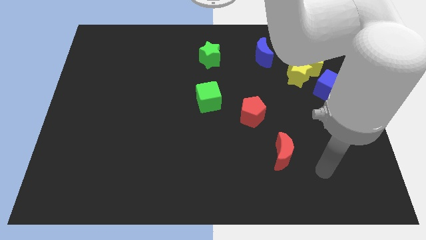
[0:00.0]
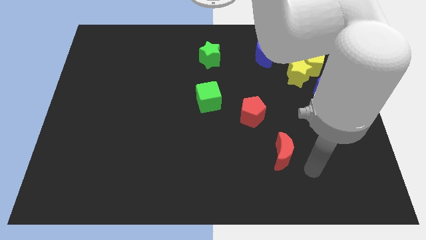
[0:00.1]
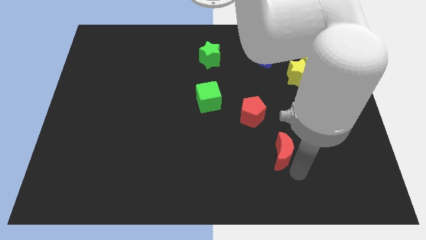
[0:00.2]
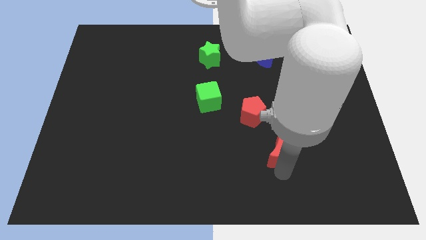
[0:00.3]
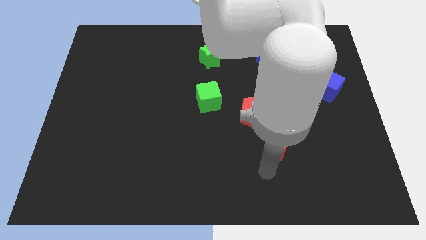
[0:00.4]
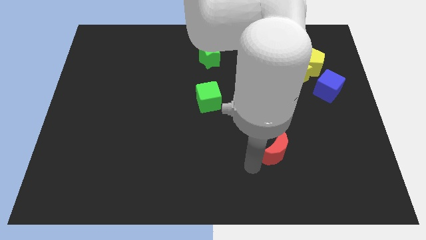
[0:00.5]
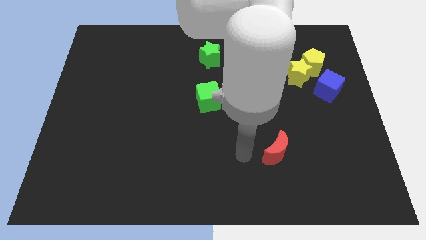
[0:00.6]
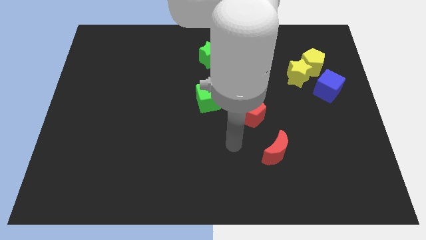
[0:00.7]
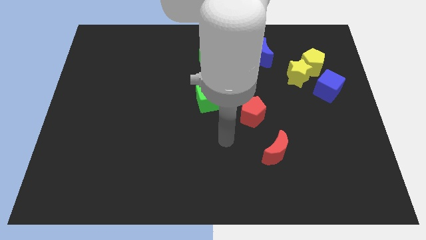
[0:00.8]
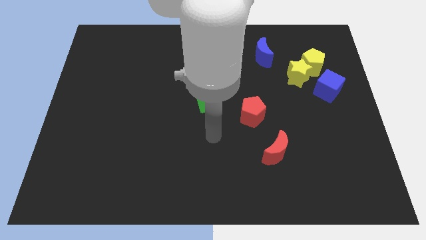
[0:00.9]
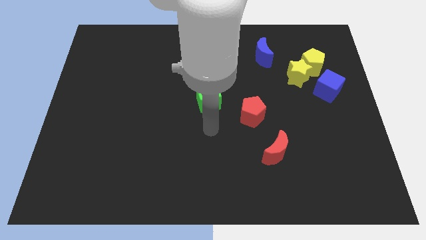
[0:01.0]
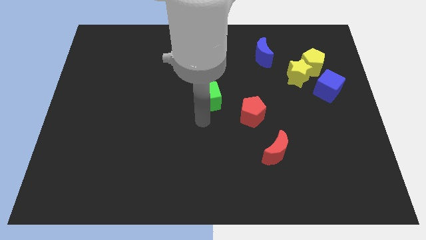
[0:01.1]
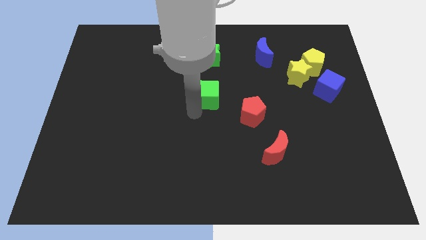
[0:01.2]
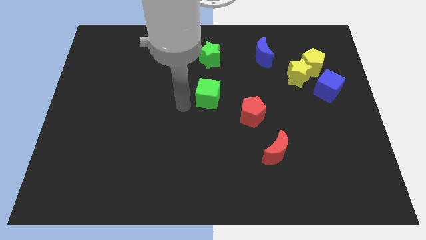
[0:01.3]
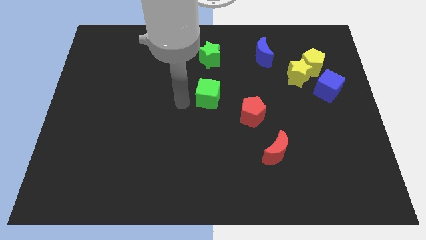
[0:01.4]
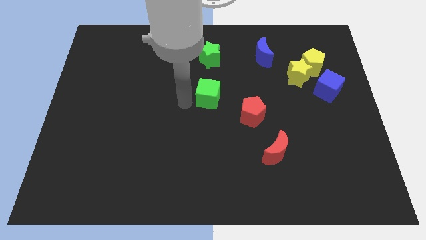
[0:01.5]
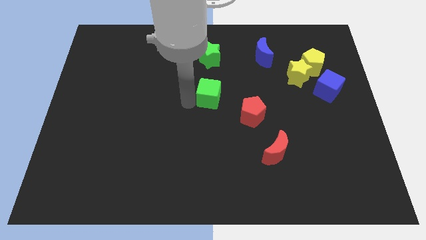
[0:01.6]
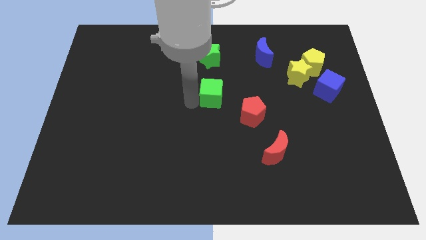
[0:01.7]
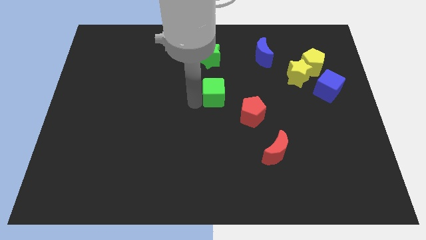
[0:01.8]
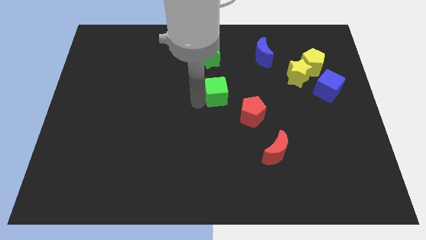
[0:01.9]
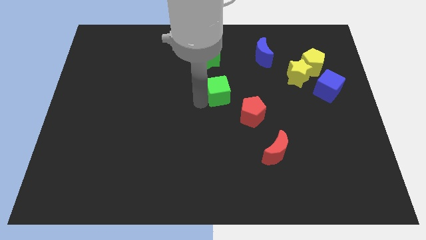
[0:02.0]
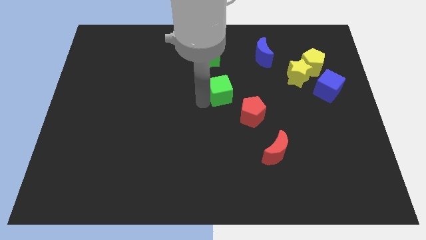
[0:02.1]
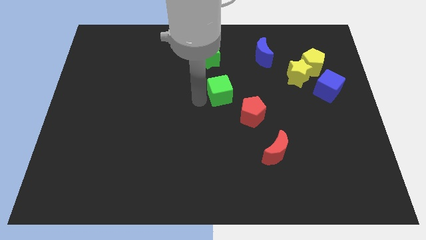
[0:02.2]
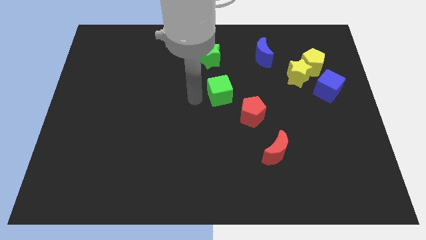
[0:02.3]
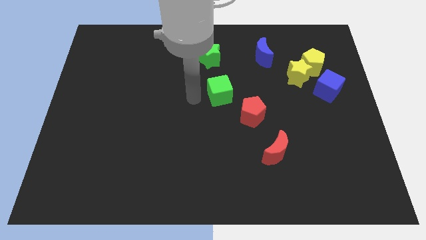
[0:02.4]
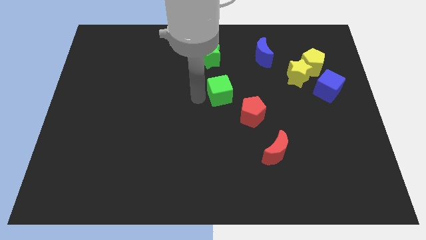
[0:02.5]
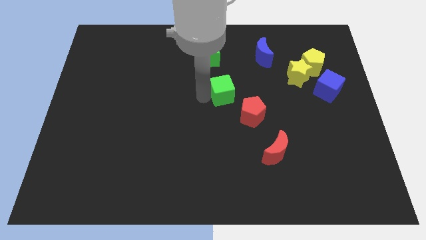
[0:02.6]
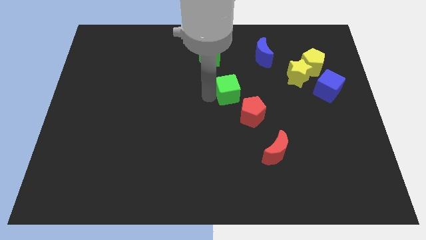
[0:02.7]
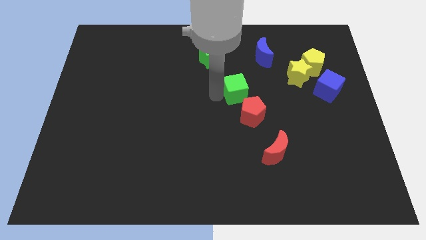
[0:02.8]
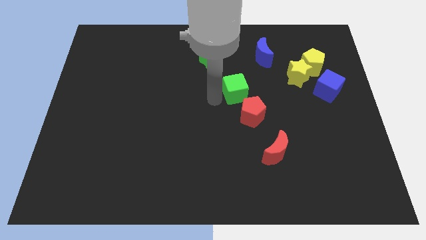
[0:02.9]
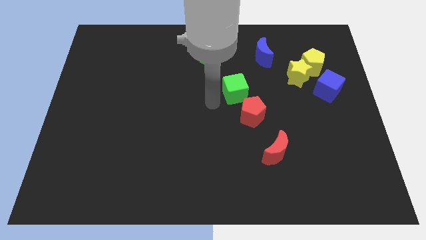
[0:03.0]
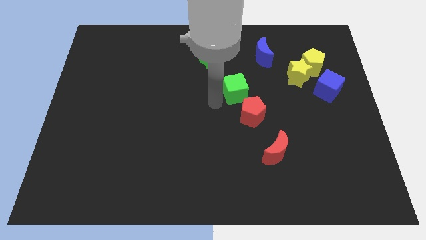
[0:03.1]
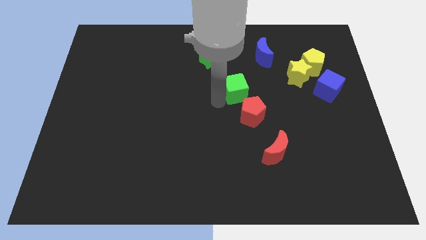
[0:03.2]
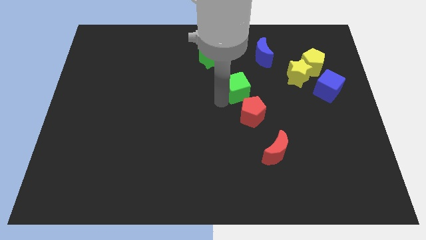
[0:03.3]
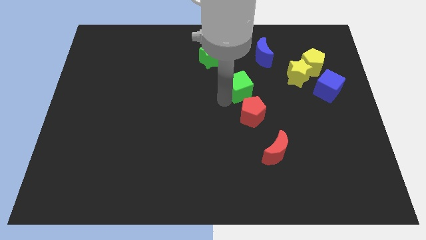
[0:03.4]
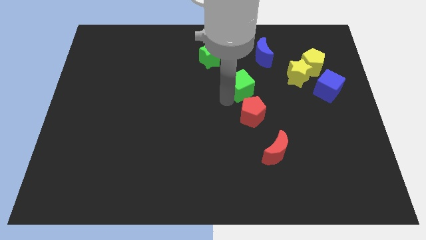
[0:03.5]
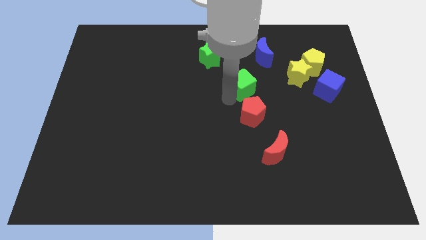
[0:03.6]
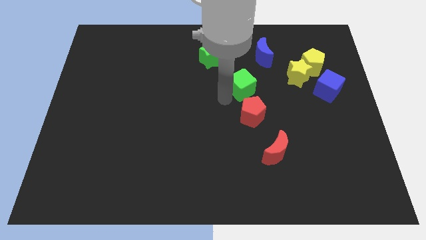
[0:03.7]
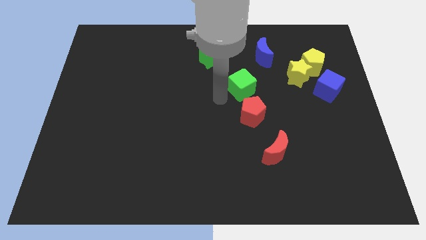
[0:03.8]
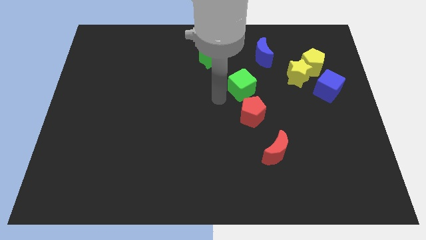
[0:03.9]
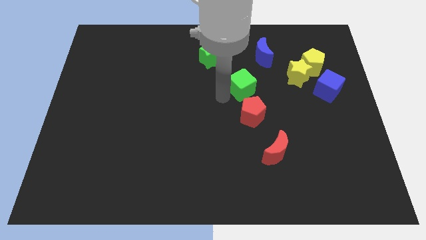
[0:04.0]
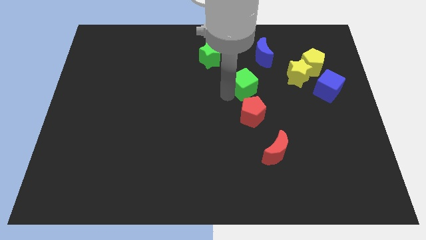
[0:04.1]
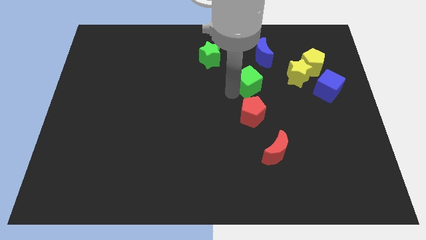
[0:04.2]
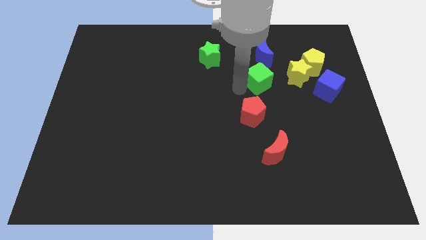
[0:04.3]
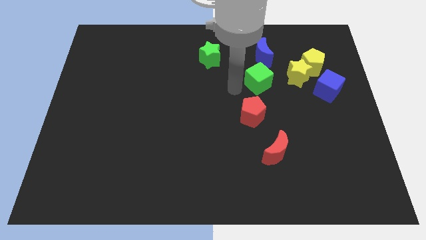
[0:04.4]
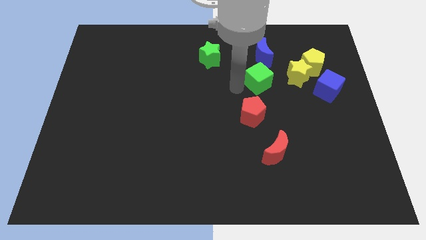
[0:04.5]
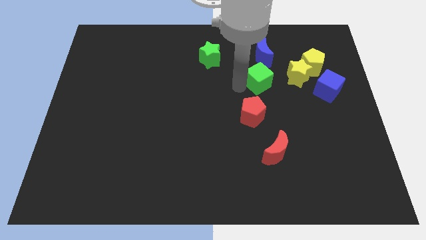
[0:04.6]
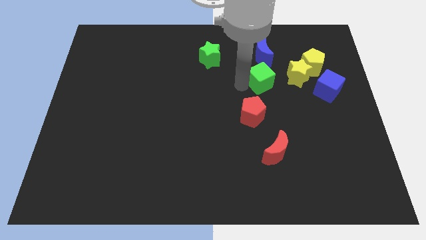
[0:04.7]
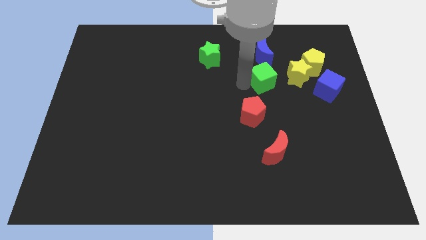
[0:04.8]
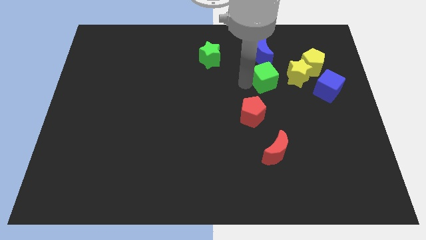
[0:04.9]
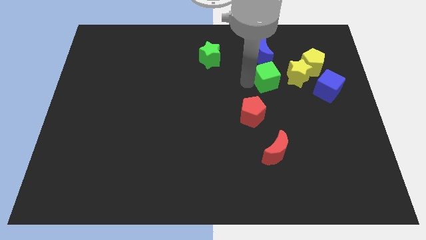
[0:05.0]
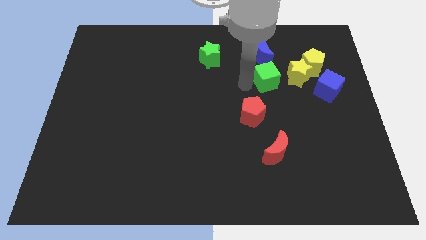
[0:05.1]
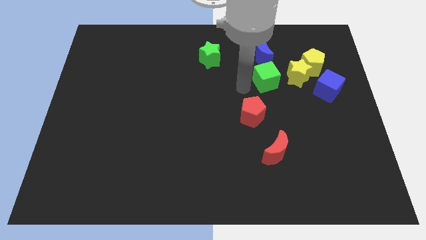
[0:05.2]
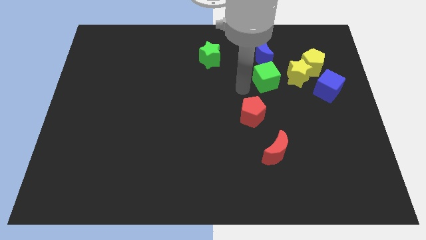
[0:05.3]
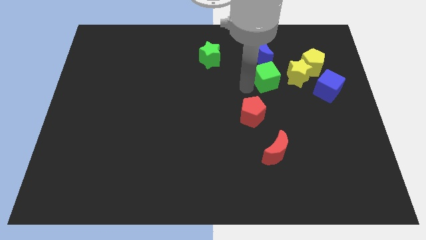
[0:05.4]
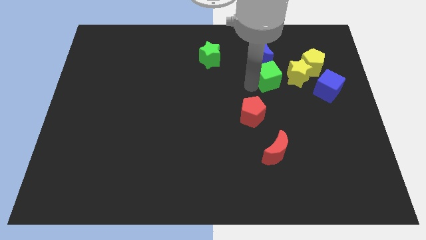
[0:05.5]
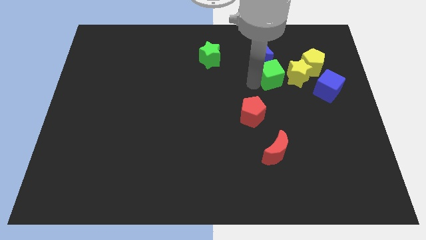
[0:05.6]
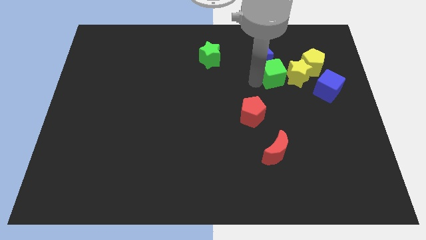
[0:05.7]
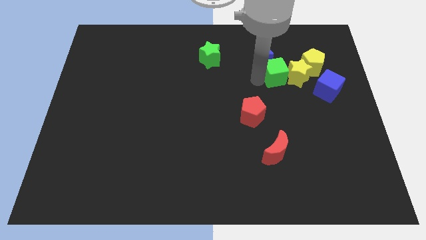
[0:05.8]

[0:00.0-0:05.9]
move the green cube to the yellow star

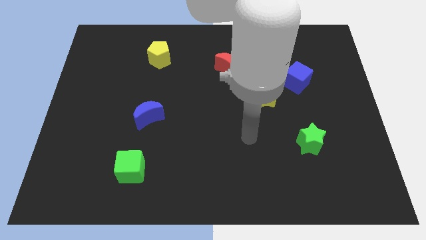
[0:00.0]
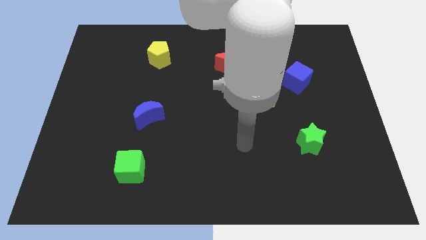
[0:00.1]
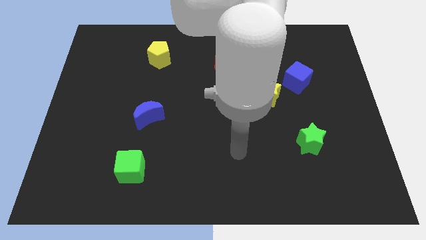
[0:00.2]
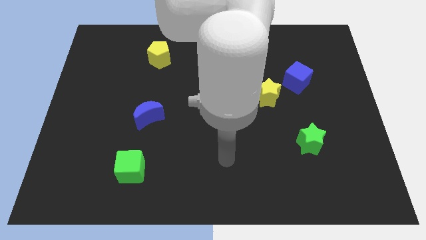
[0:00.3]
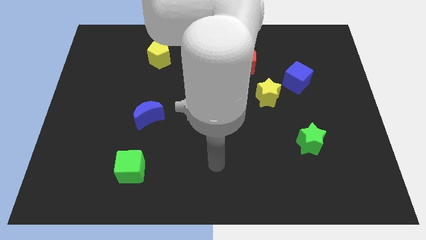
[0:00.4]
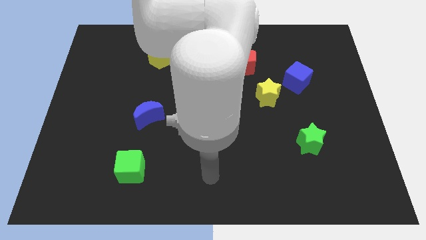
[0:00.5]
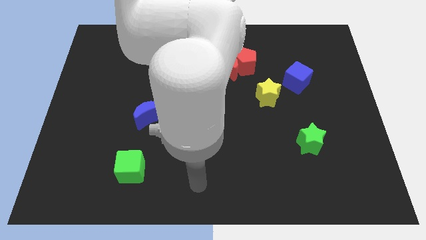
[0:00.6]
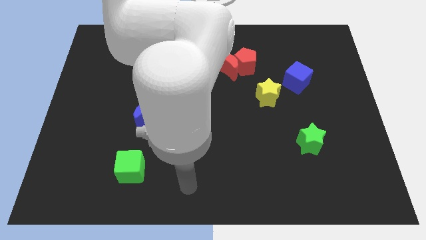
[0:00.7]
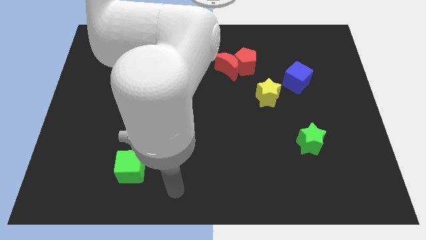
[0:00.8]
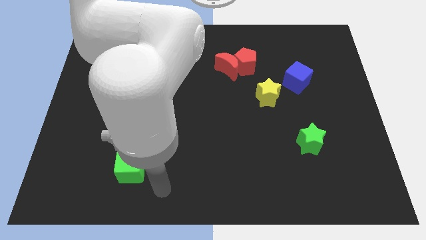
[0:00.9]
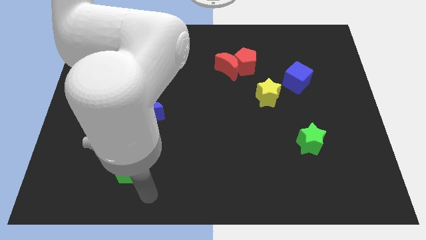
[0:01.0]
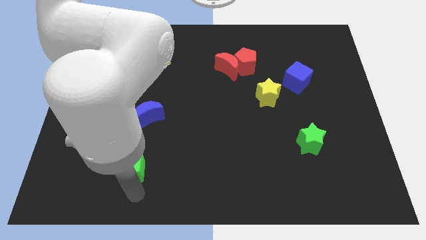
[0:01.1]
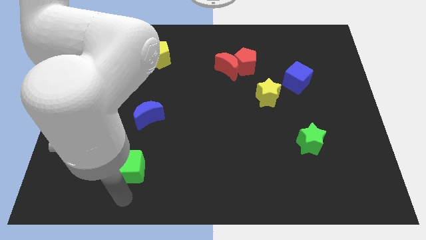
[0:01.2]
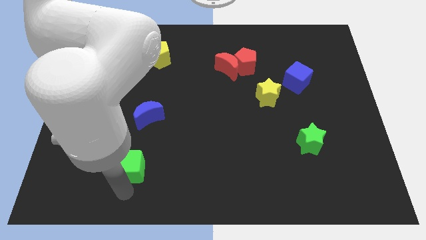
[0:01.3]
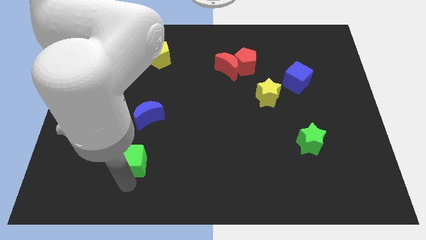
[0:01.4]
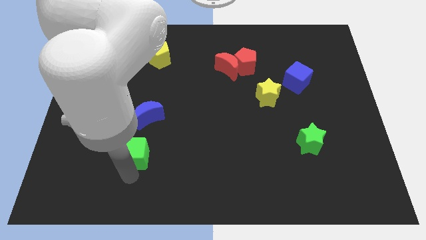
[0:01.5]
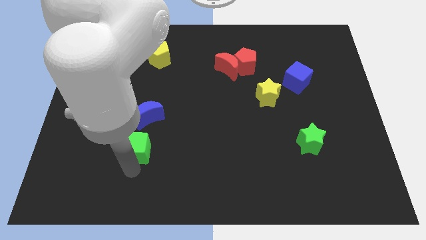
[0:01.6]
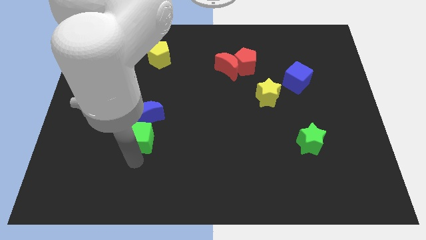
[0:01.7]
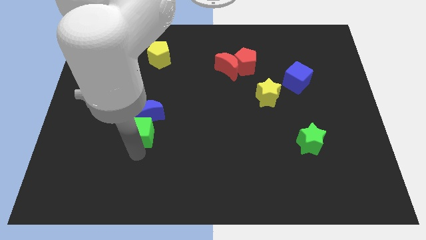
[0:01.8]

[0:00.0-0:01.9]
put the green cube next to the blue moon
